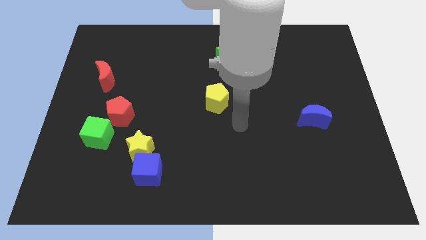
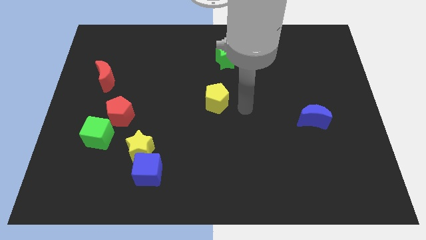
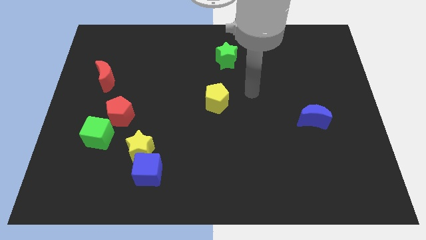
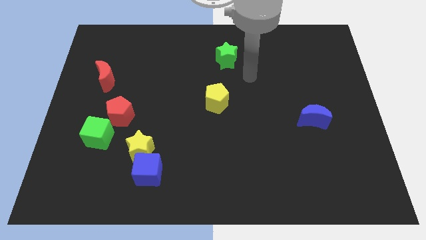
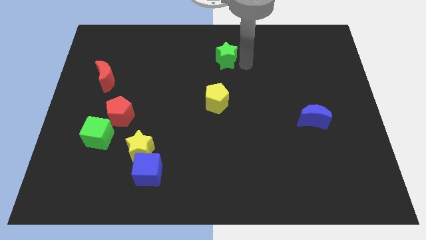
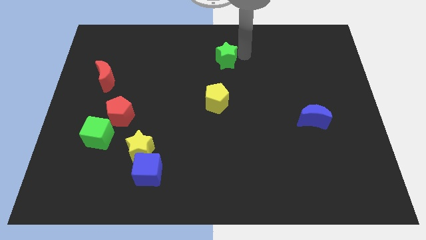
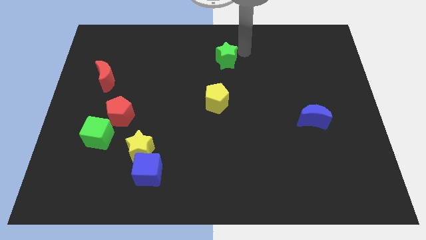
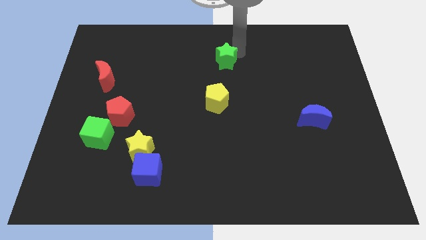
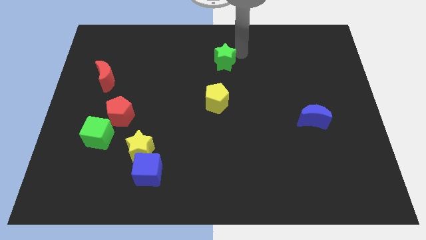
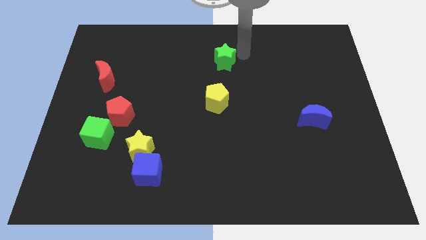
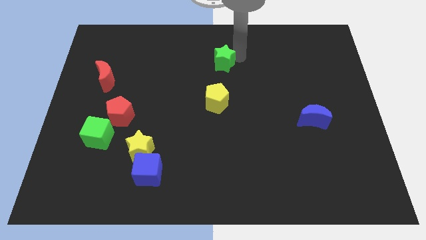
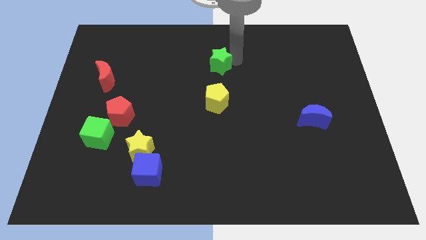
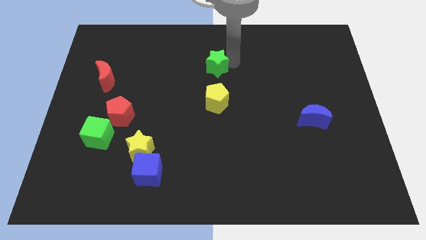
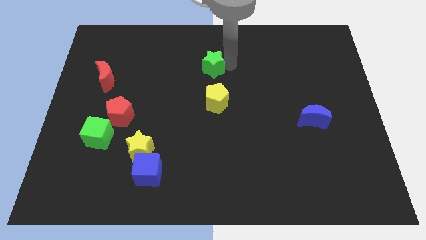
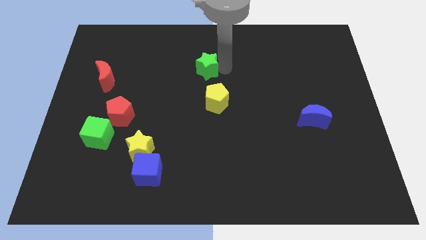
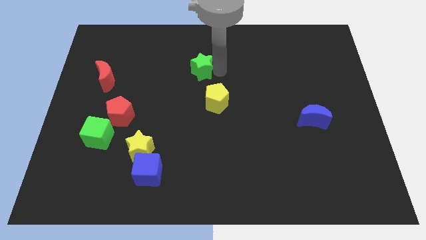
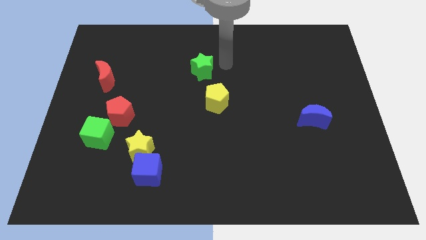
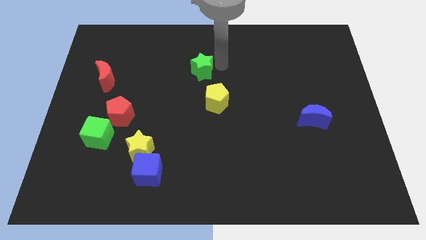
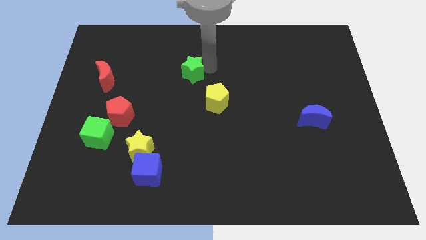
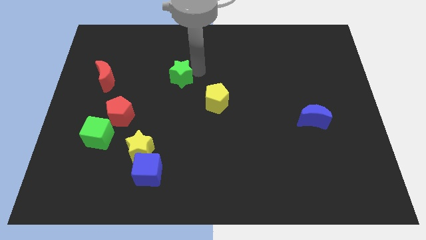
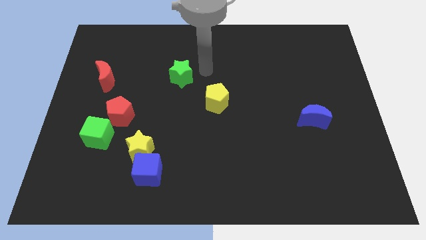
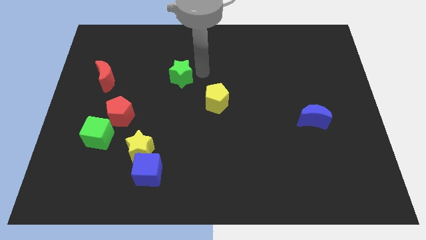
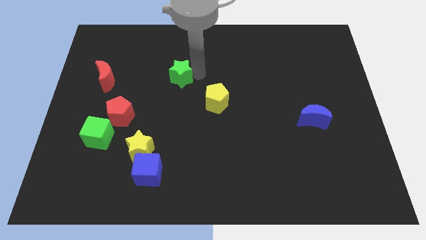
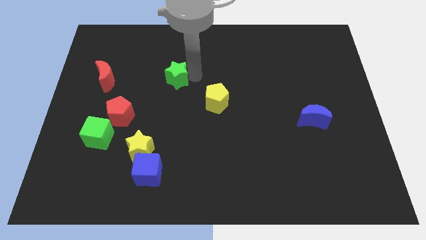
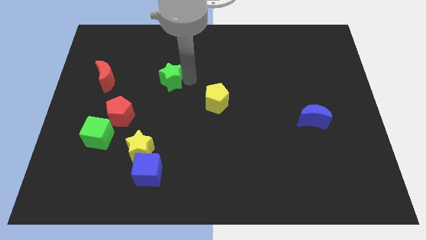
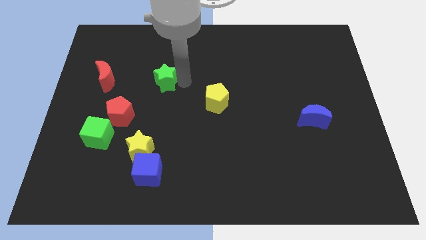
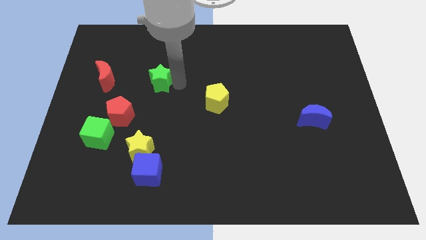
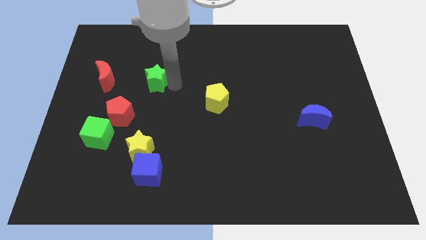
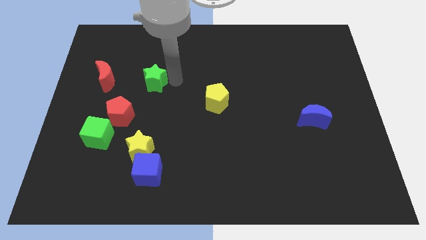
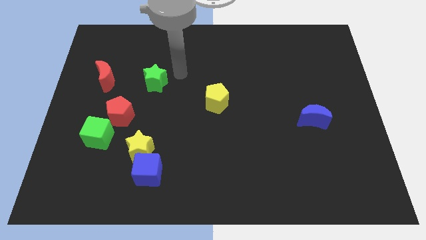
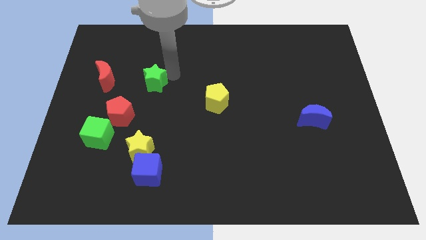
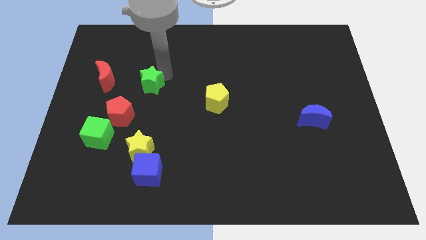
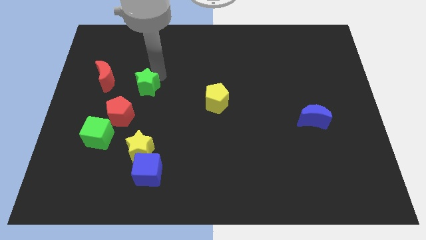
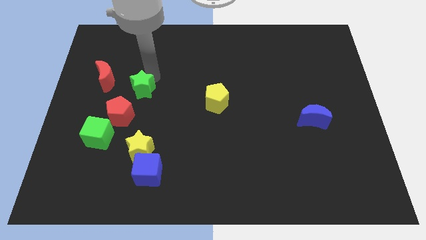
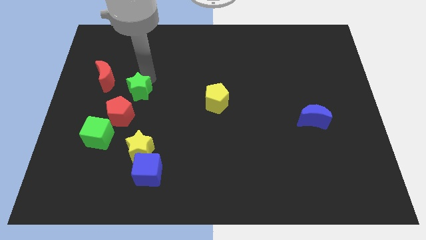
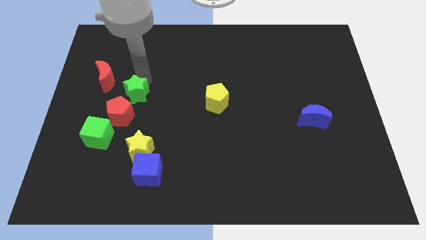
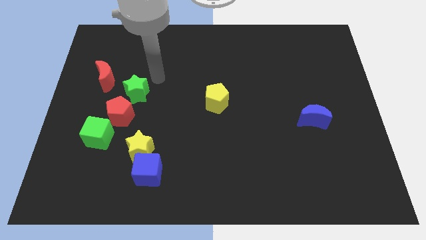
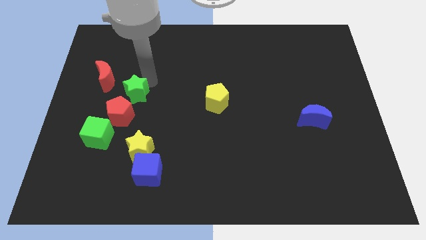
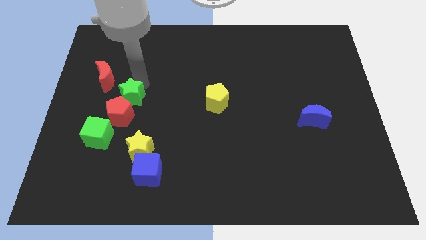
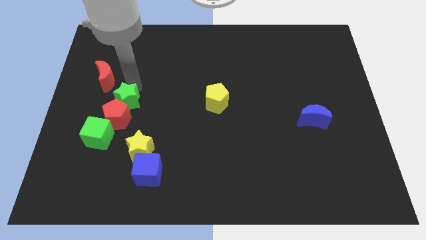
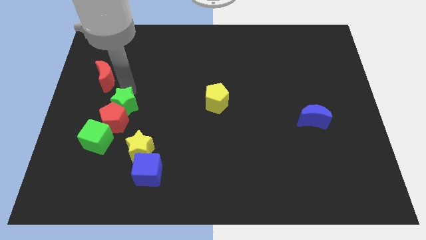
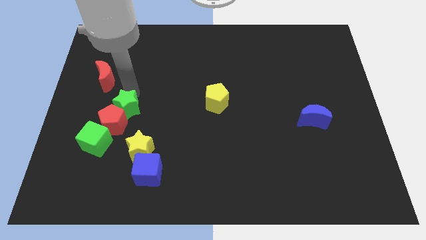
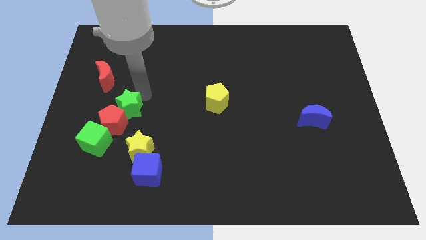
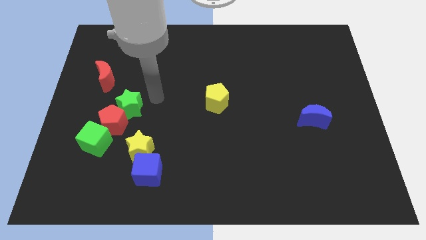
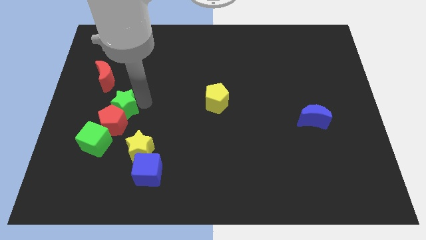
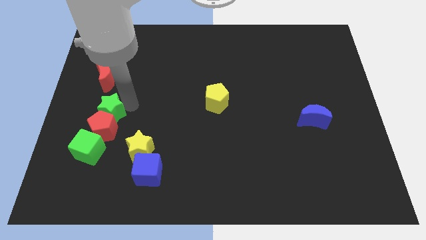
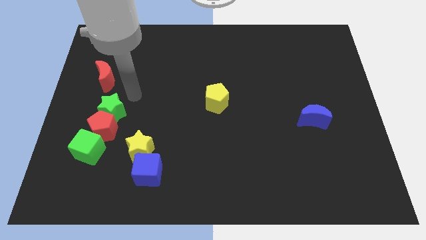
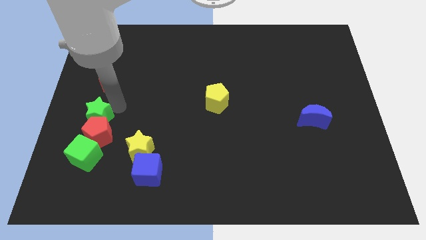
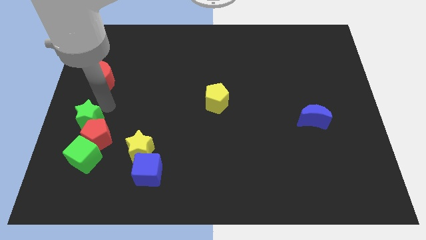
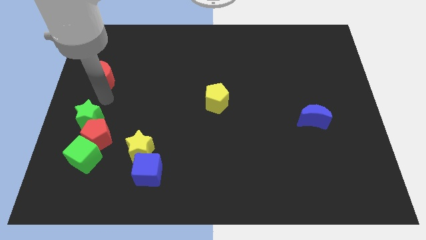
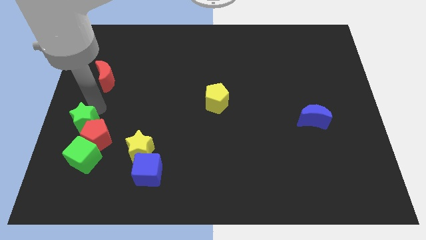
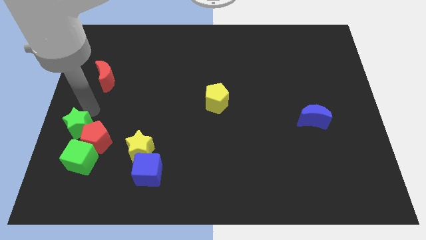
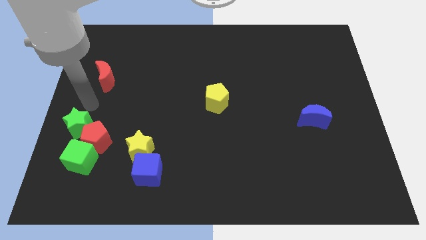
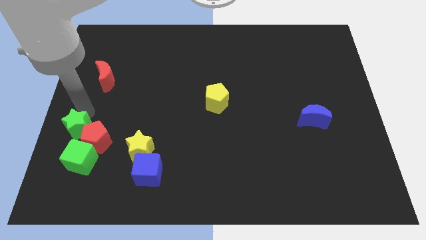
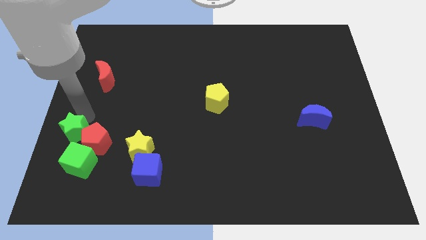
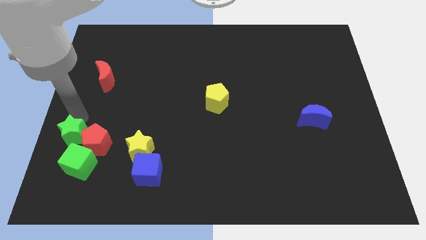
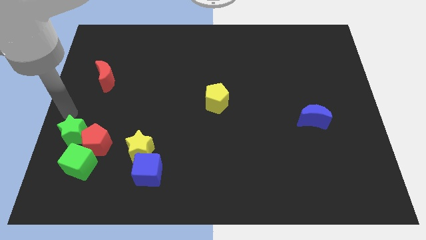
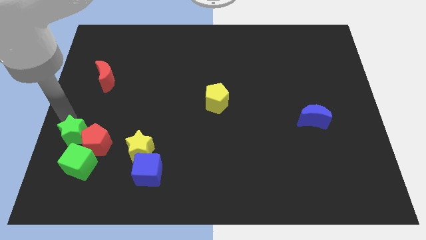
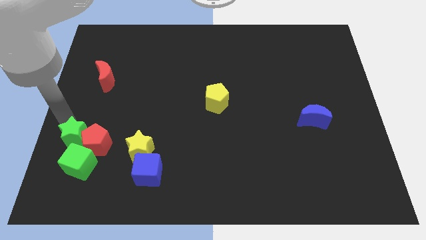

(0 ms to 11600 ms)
slide the green star just left of the yellow star

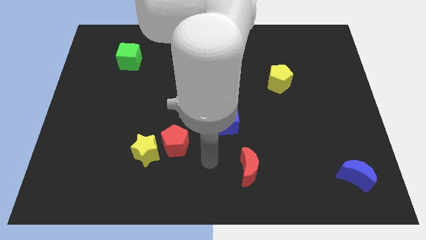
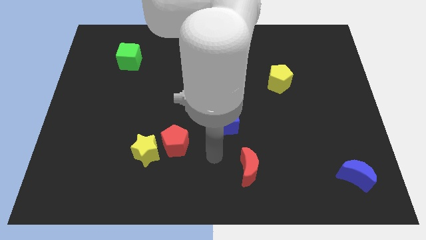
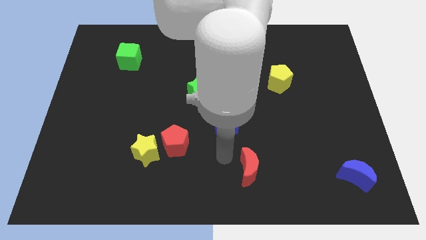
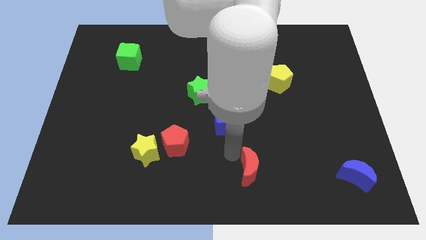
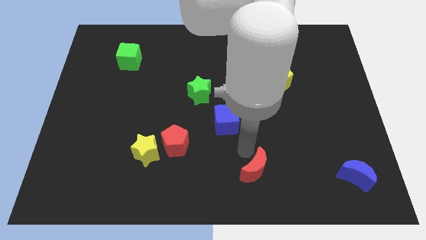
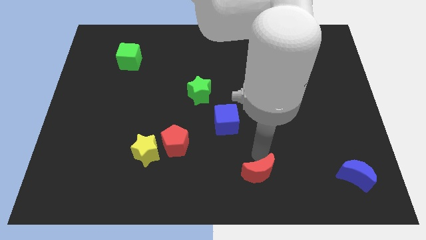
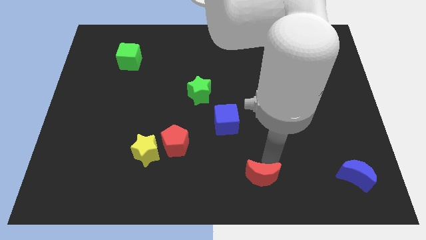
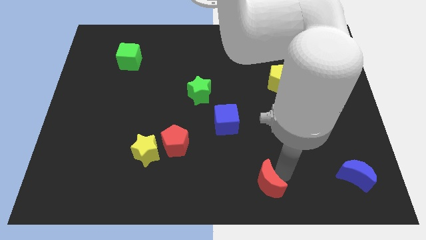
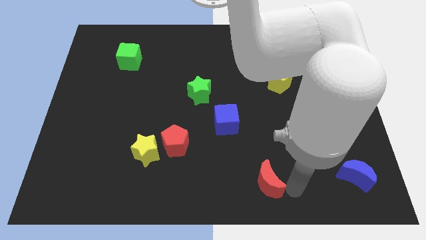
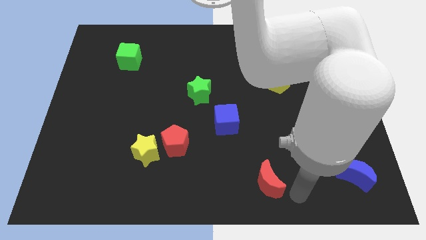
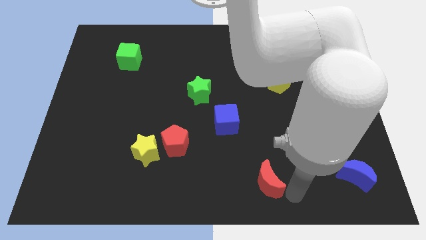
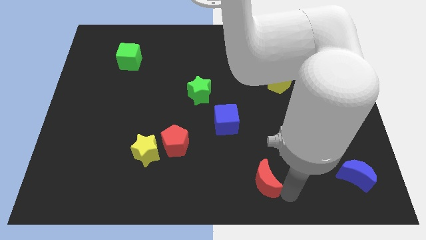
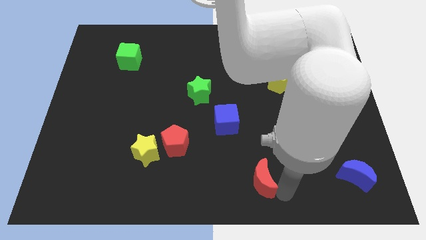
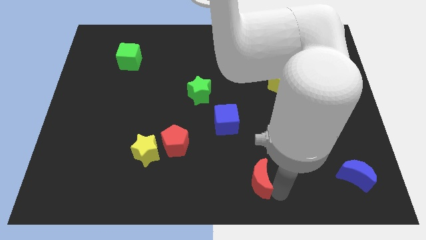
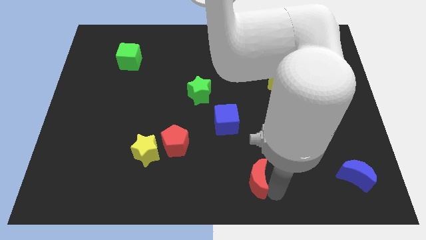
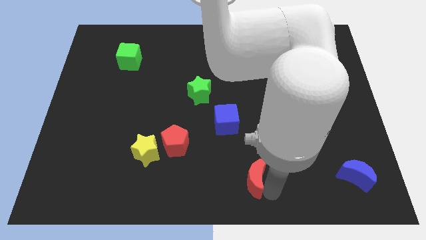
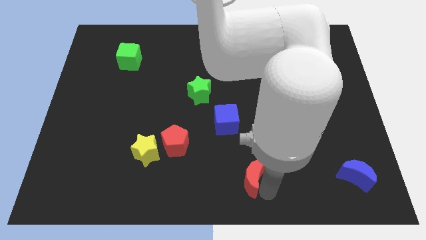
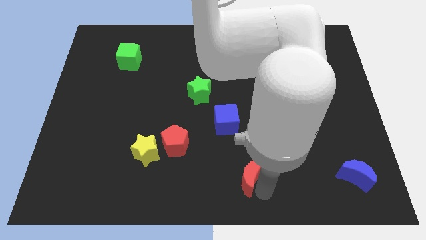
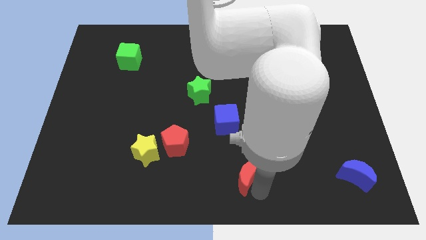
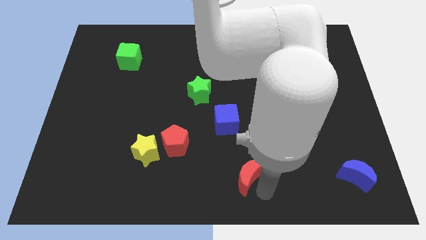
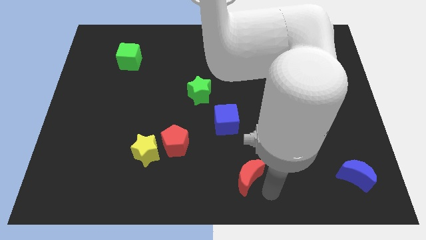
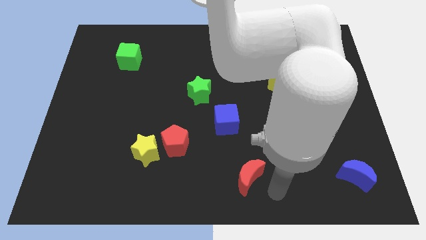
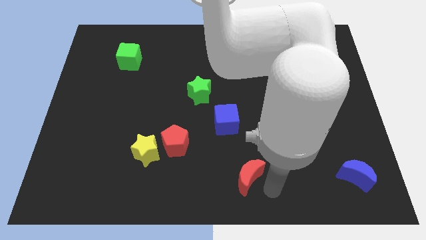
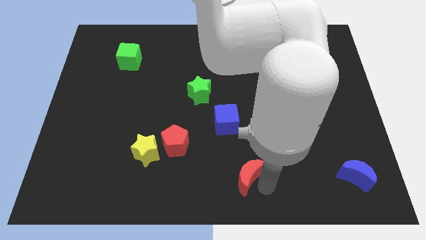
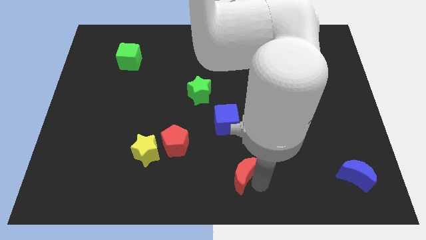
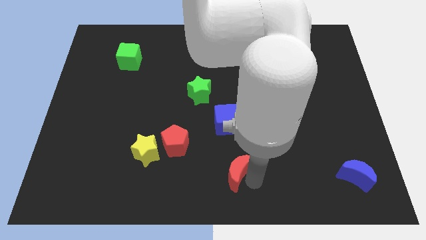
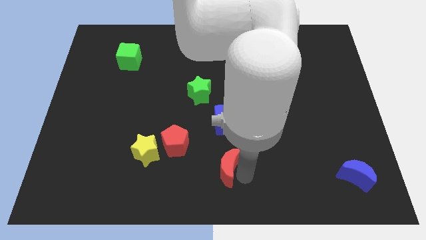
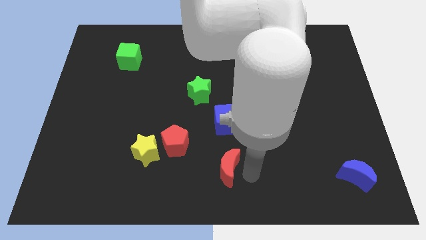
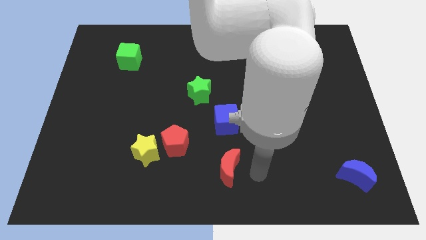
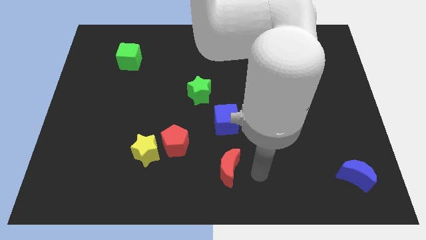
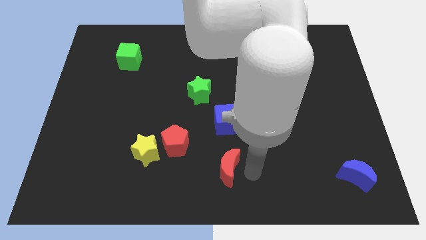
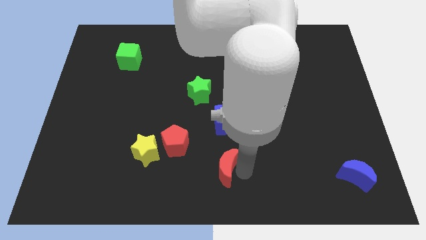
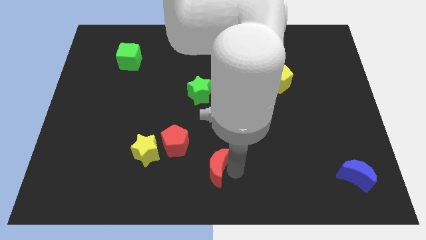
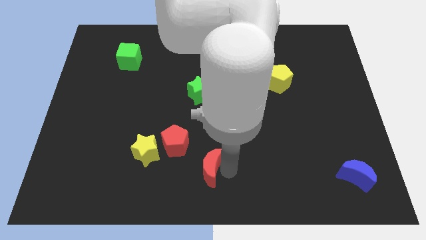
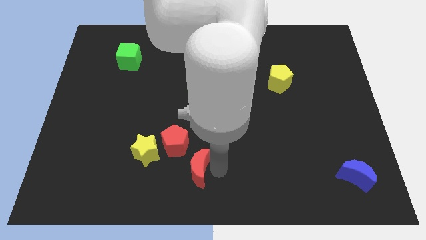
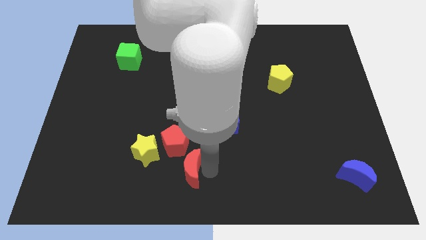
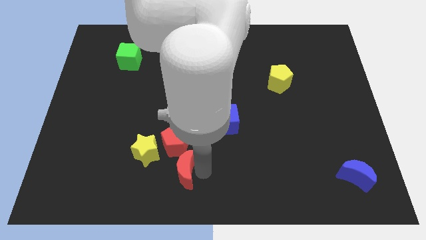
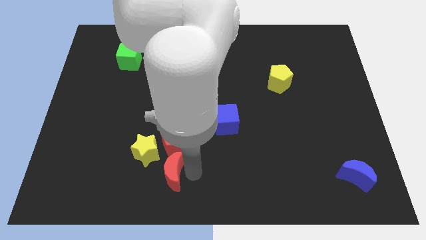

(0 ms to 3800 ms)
put the red moon diagonally down and to the left of the red pentagon
